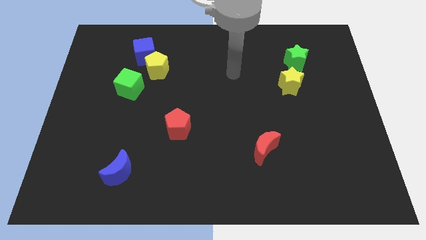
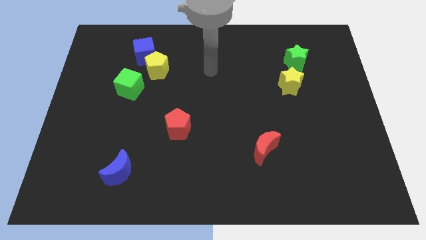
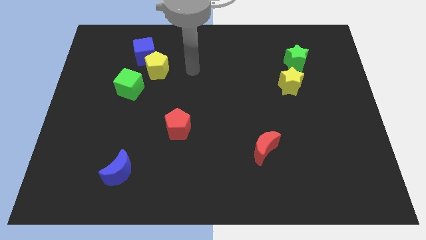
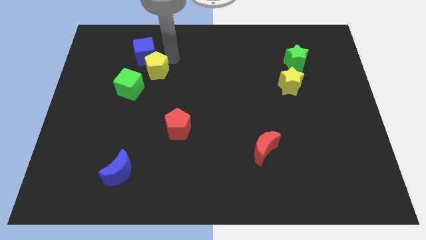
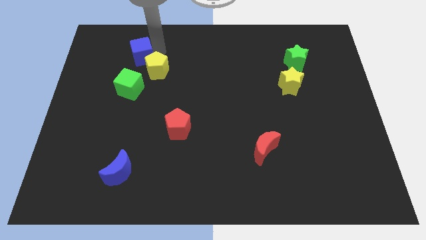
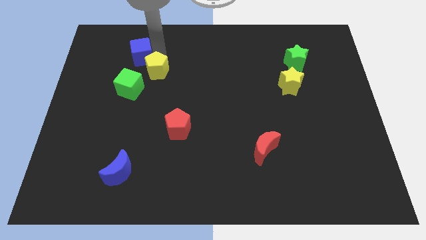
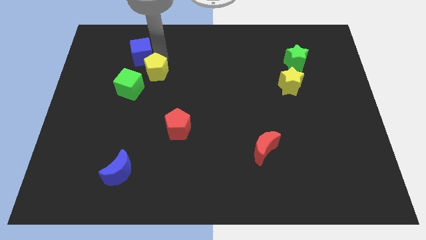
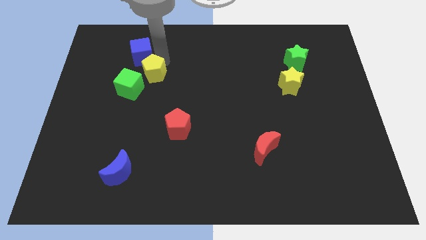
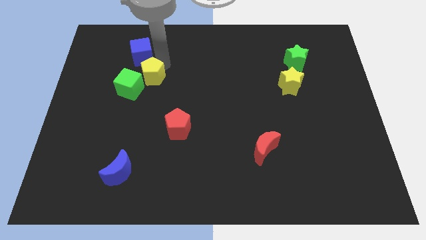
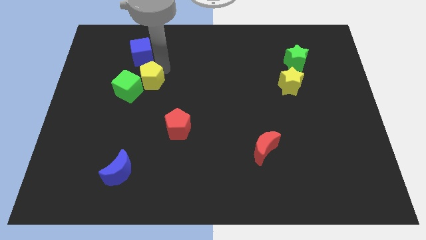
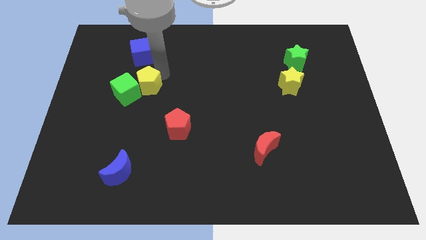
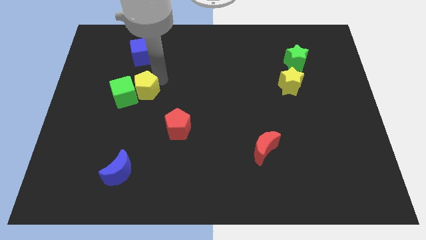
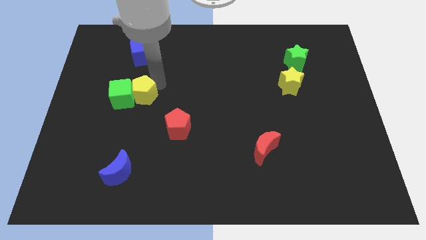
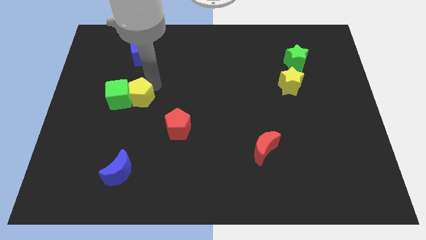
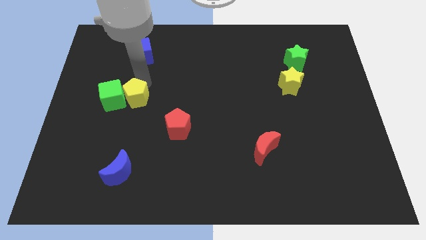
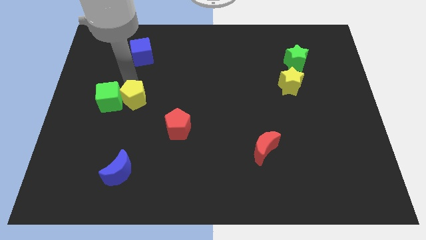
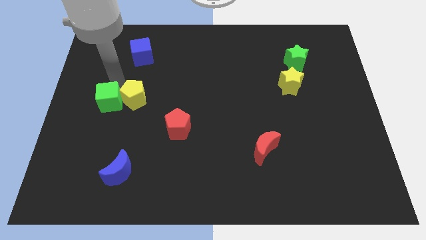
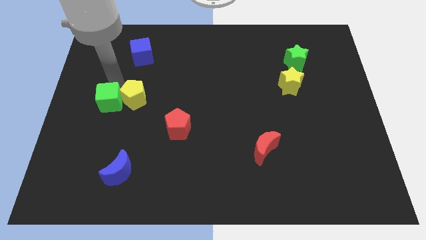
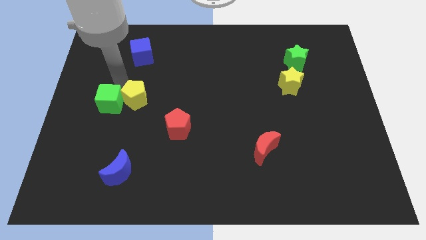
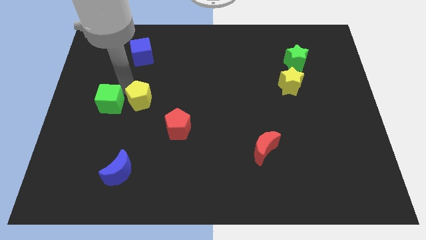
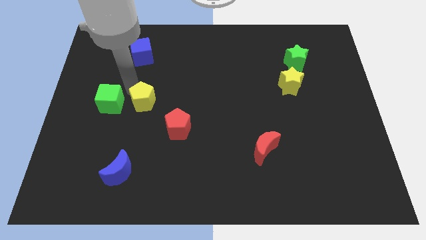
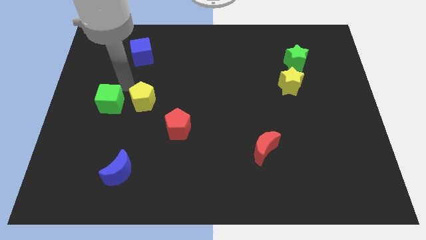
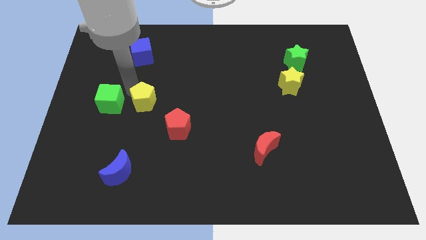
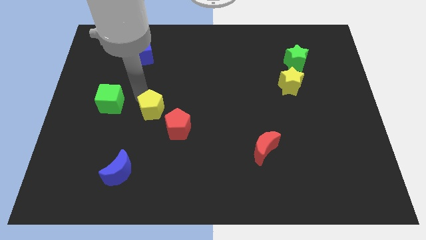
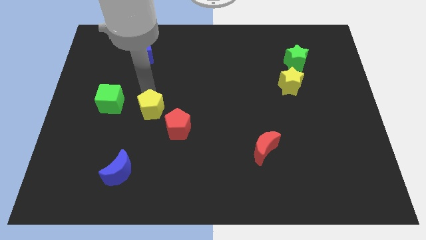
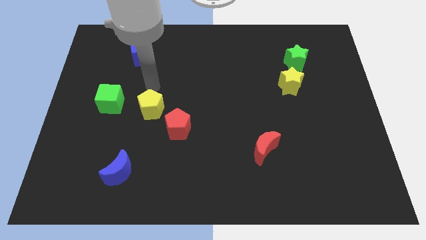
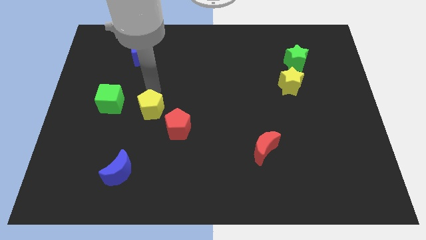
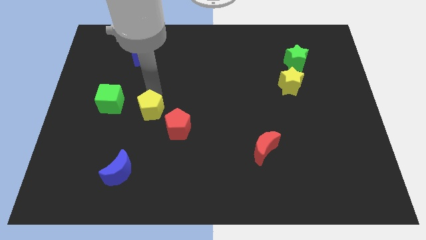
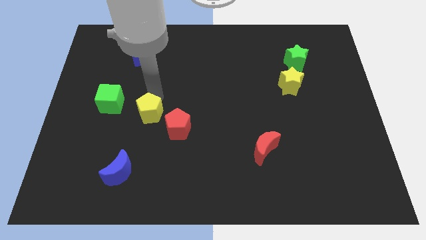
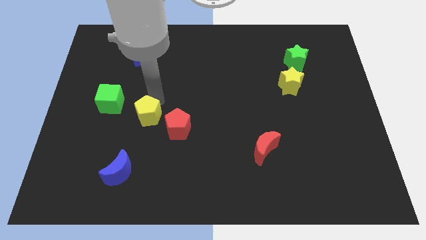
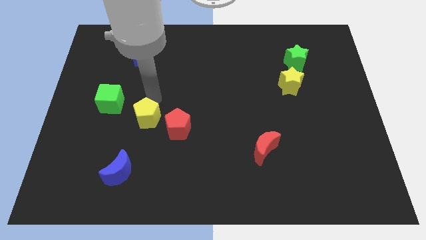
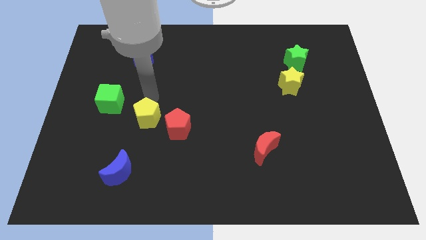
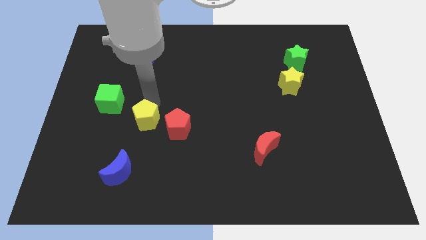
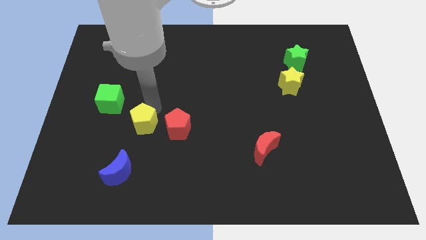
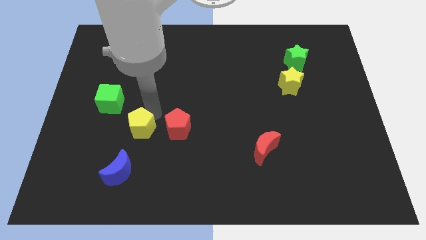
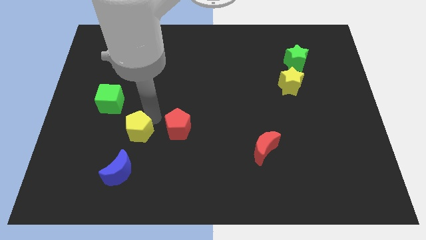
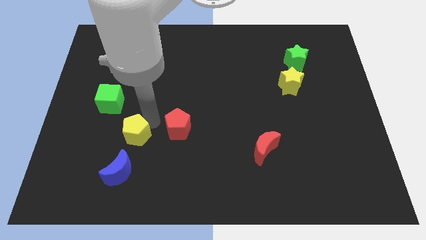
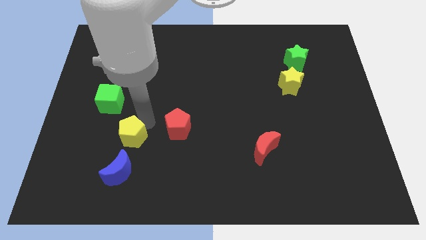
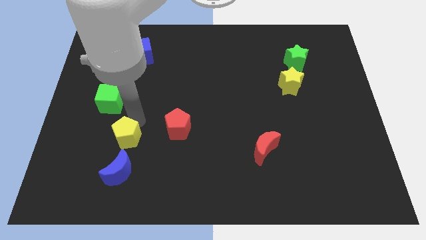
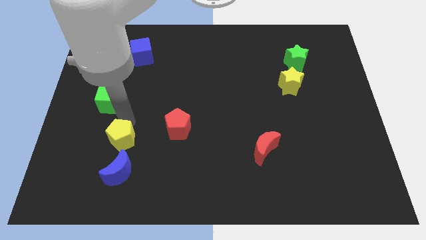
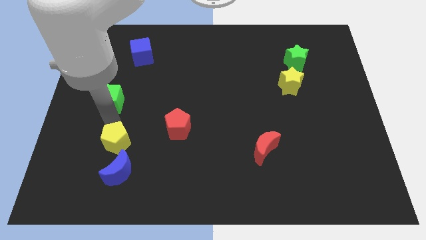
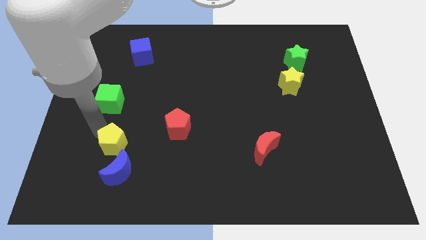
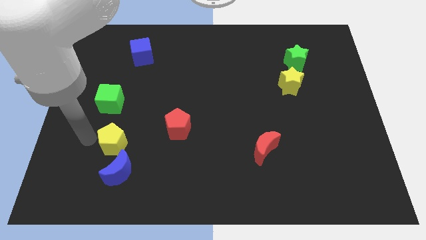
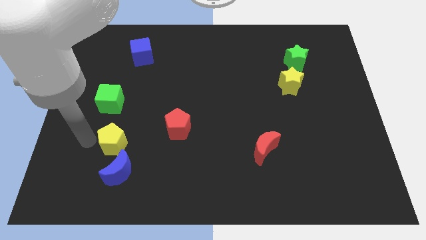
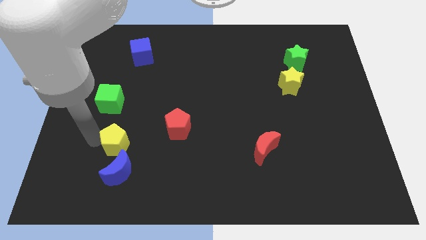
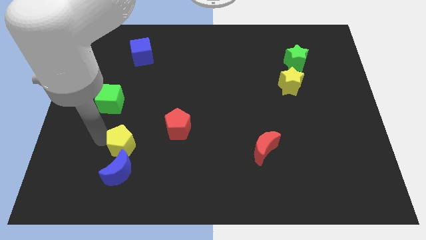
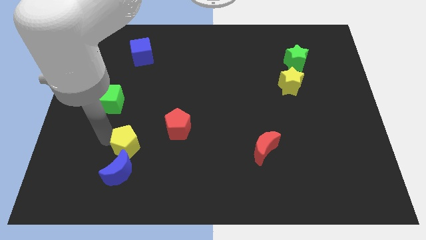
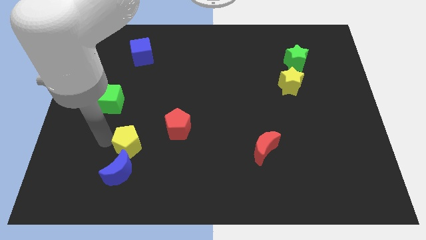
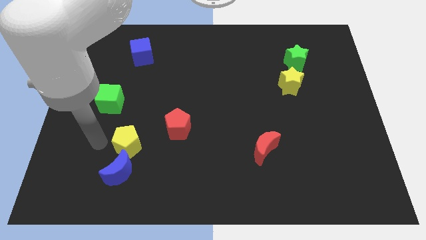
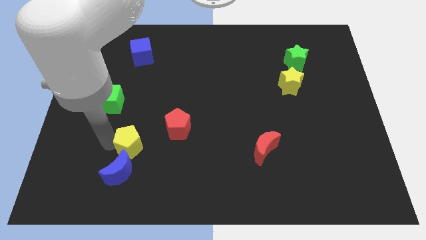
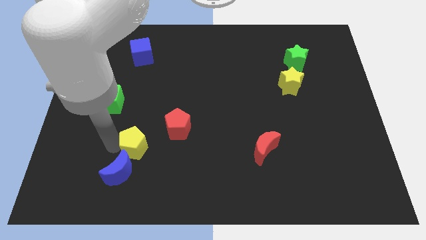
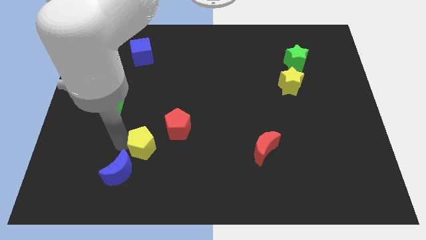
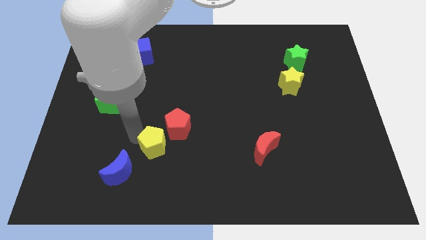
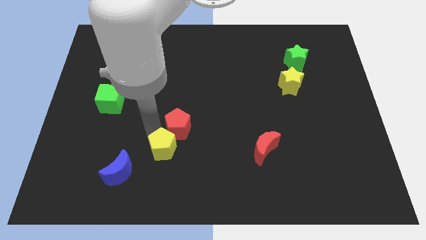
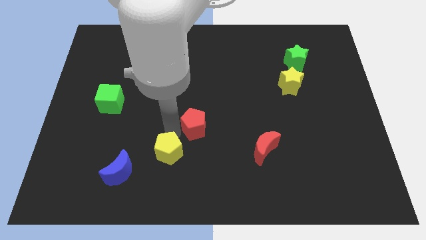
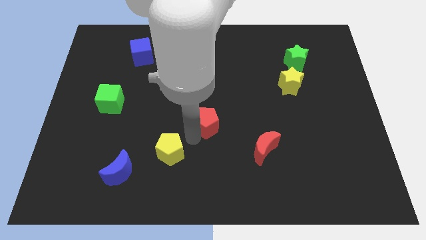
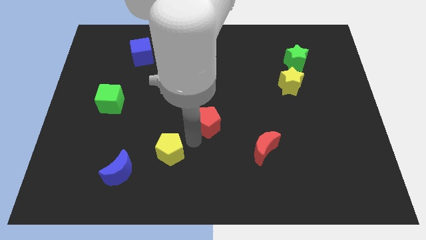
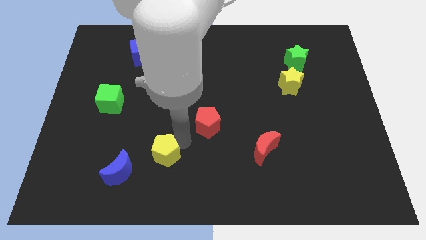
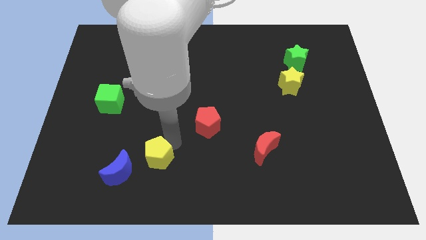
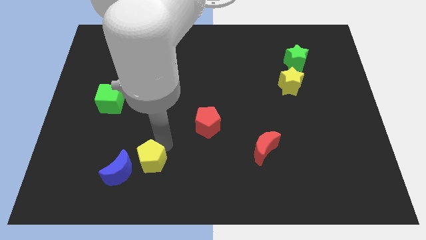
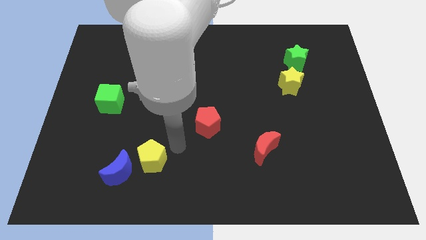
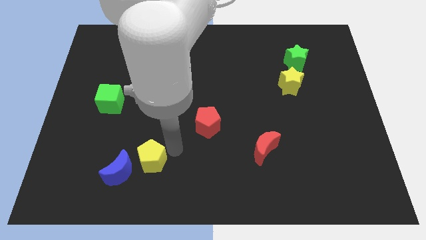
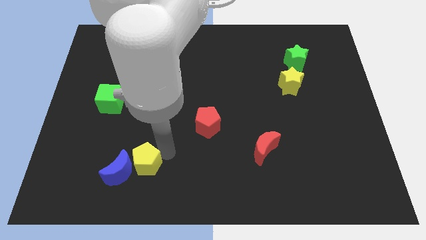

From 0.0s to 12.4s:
push the yellow pentagon towards the blue moon
